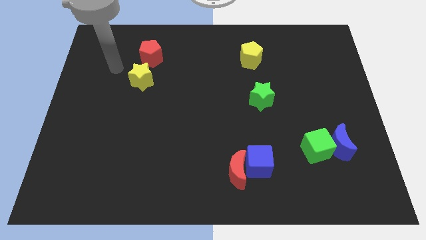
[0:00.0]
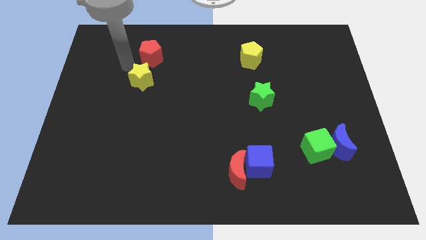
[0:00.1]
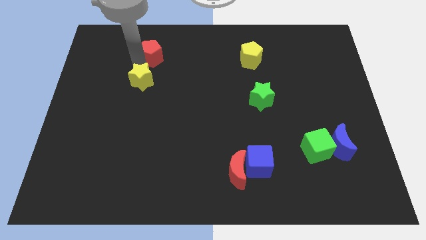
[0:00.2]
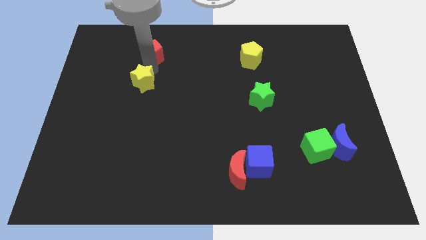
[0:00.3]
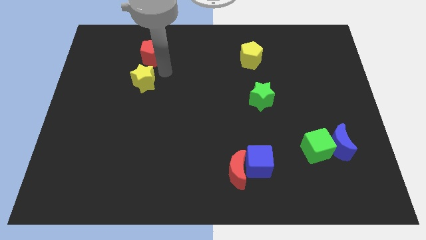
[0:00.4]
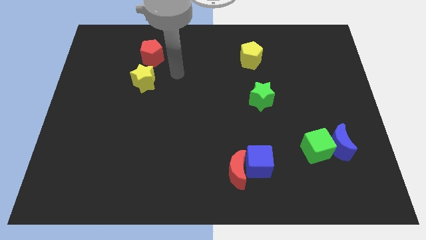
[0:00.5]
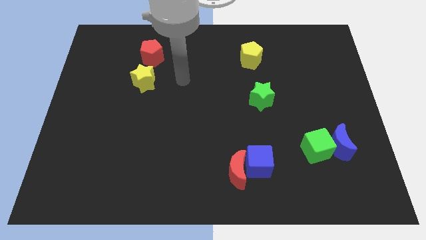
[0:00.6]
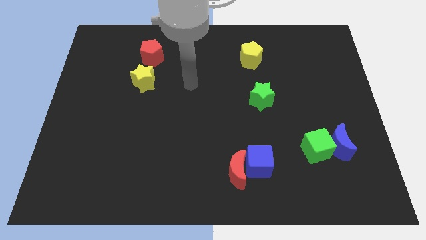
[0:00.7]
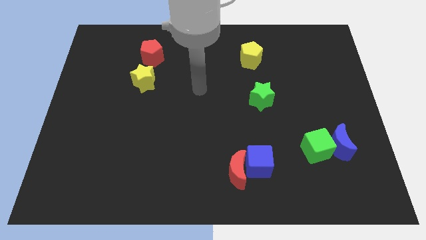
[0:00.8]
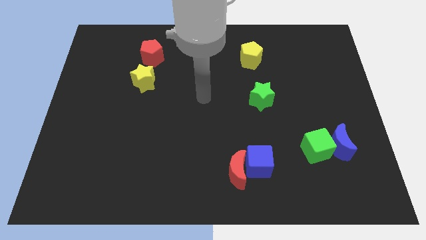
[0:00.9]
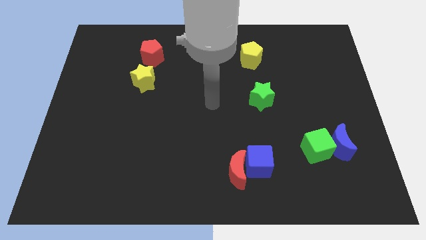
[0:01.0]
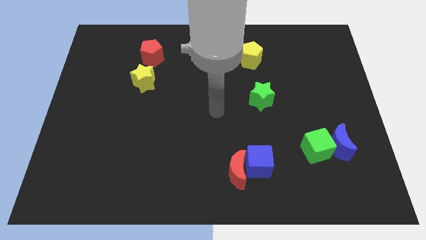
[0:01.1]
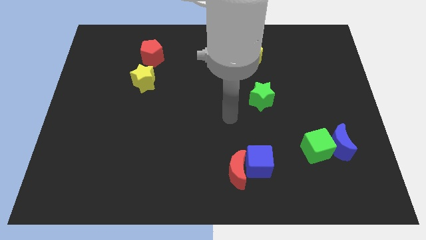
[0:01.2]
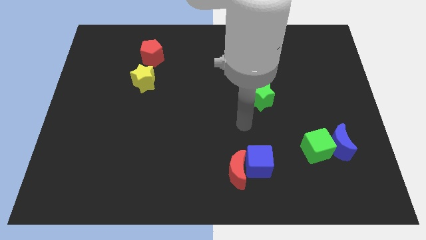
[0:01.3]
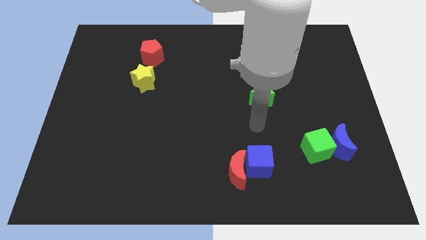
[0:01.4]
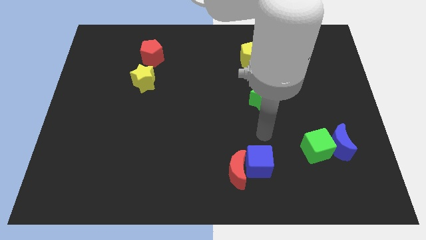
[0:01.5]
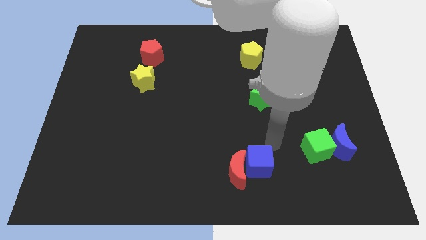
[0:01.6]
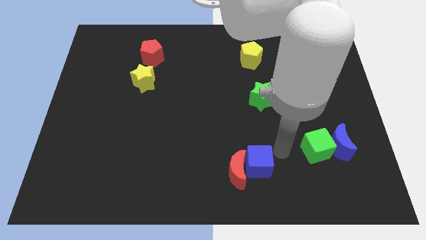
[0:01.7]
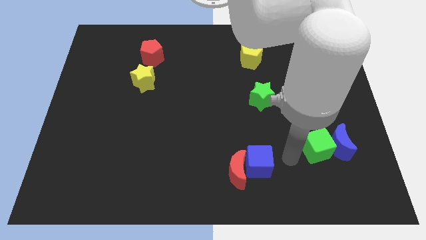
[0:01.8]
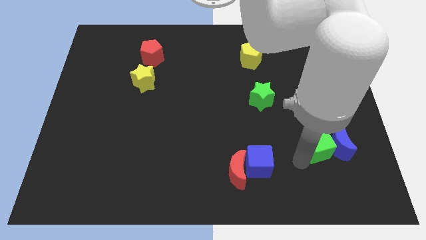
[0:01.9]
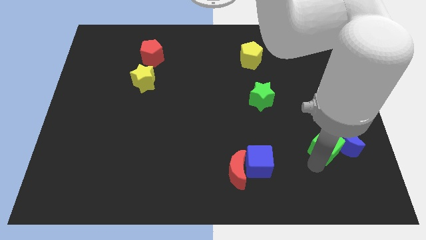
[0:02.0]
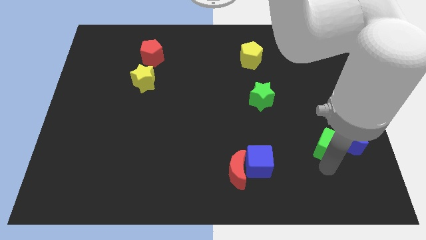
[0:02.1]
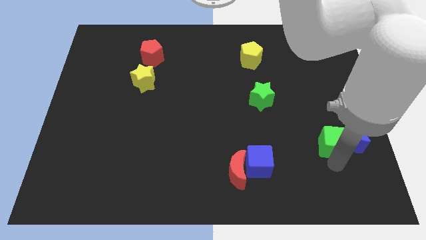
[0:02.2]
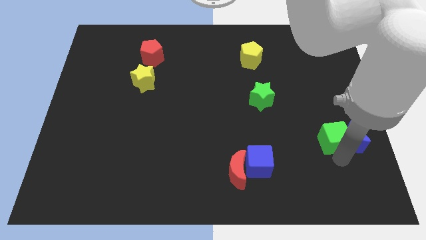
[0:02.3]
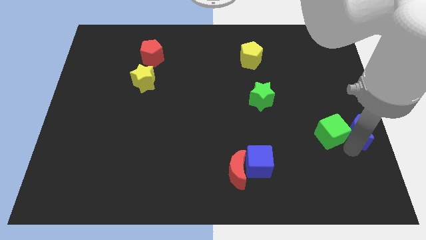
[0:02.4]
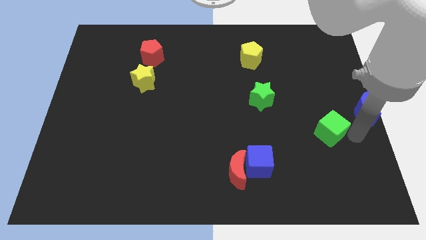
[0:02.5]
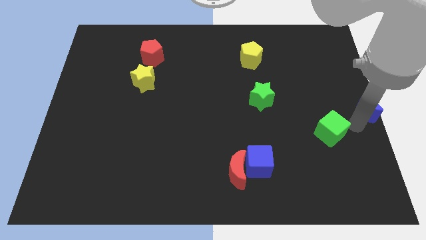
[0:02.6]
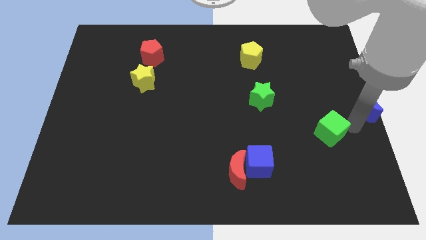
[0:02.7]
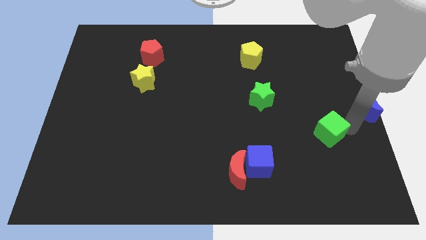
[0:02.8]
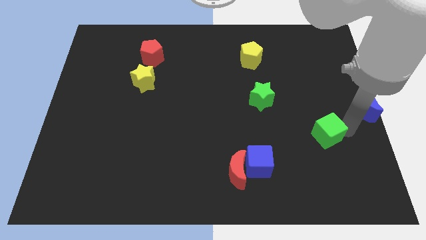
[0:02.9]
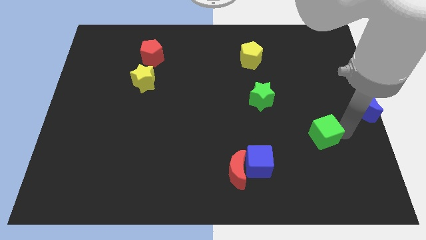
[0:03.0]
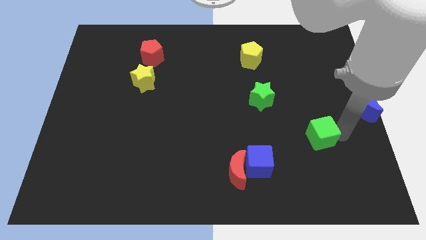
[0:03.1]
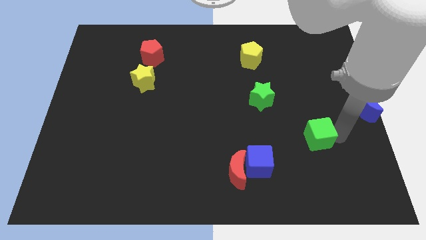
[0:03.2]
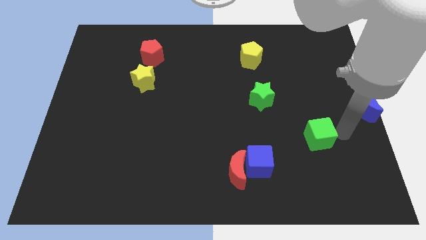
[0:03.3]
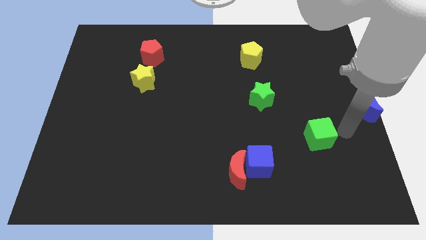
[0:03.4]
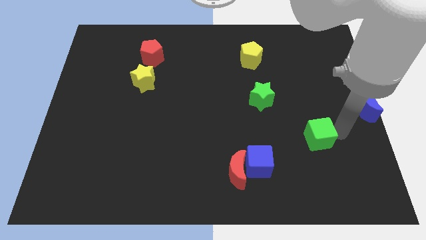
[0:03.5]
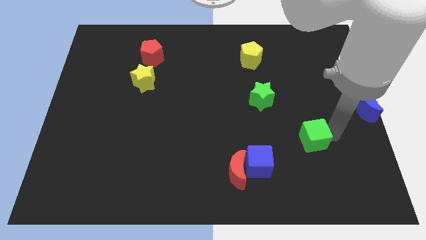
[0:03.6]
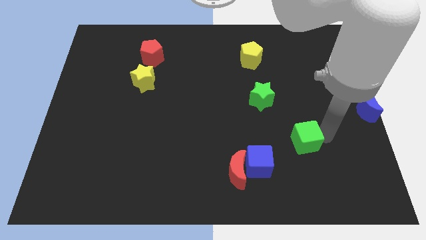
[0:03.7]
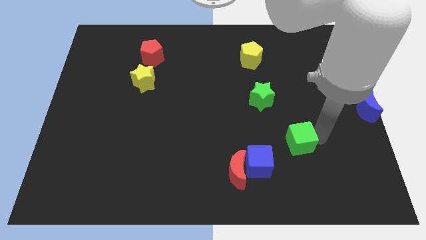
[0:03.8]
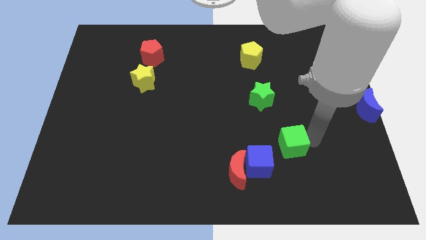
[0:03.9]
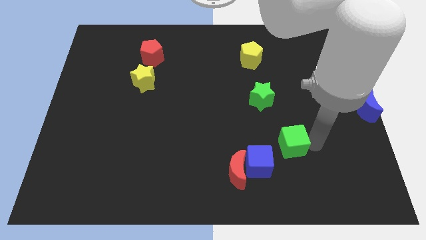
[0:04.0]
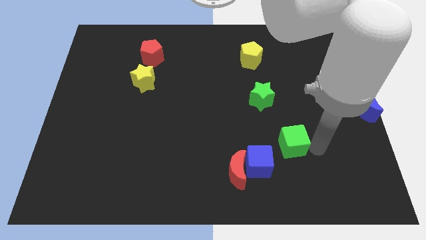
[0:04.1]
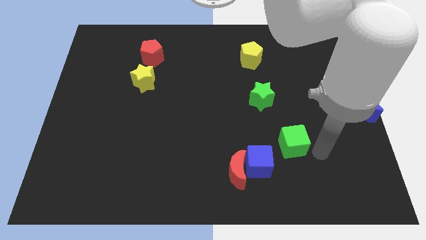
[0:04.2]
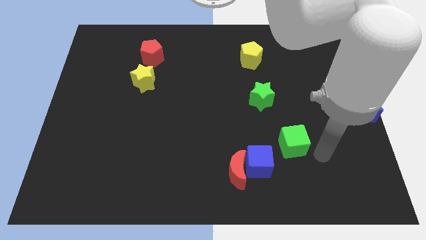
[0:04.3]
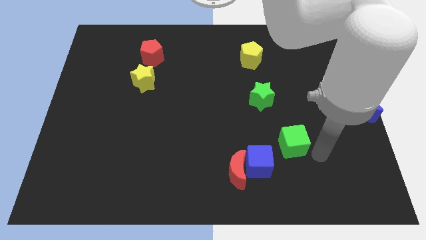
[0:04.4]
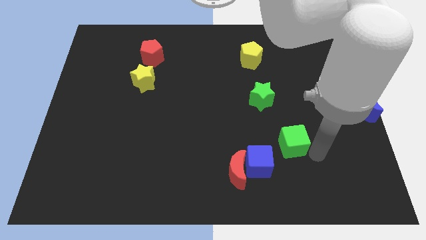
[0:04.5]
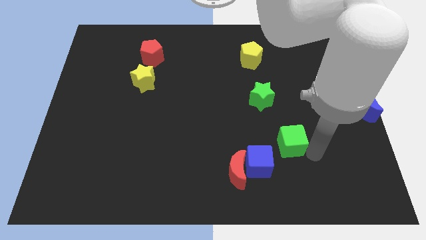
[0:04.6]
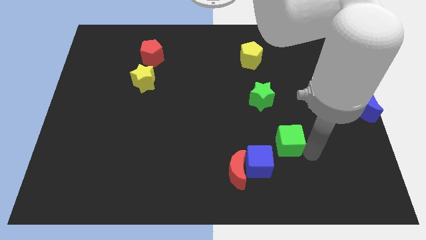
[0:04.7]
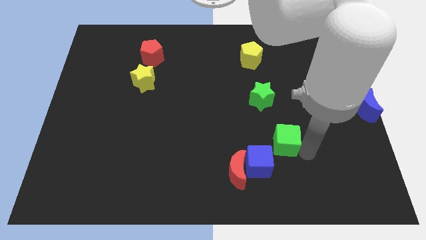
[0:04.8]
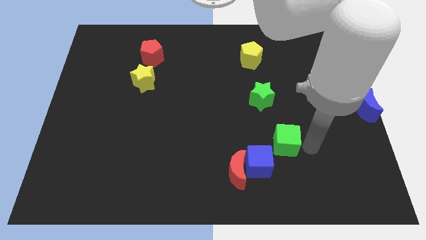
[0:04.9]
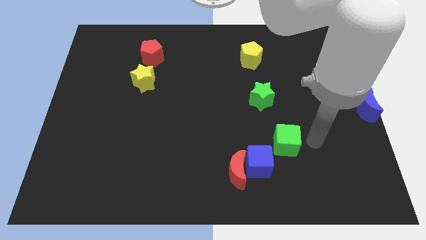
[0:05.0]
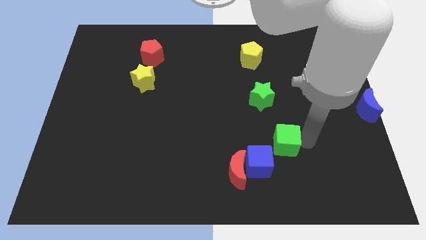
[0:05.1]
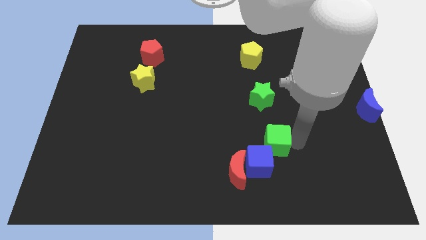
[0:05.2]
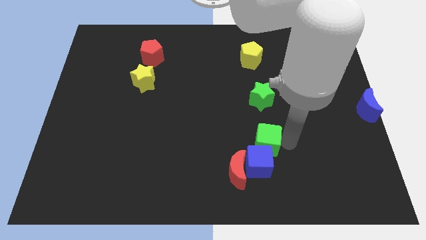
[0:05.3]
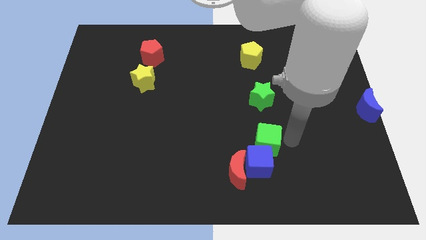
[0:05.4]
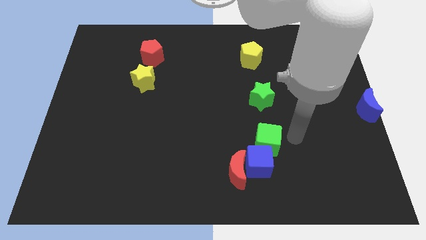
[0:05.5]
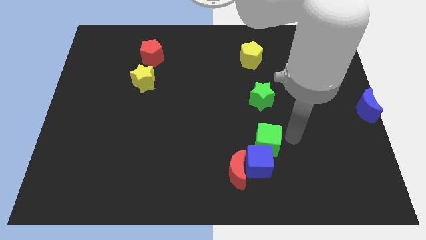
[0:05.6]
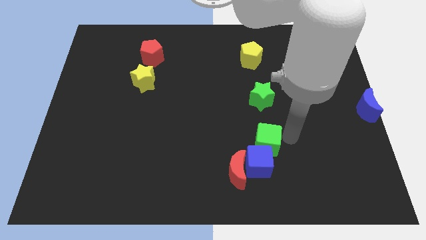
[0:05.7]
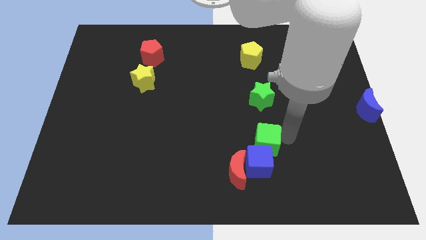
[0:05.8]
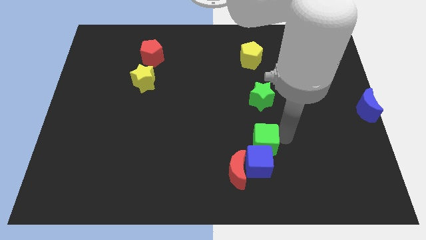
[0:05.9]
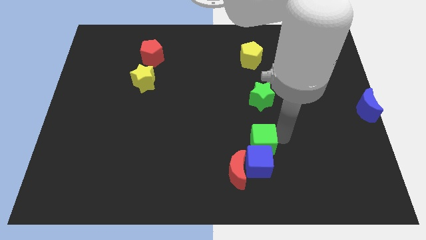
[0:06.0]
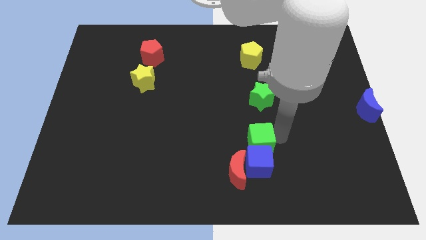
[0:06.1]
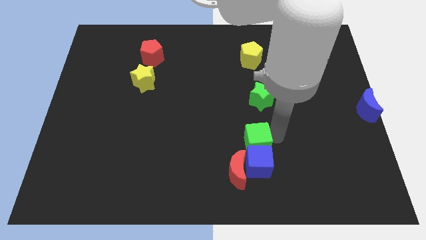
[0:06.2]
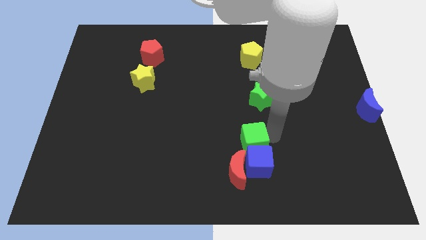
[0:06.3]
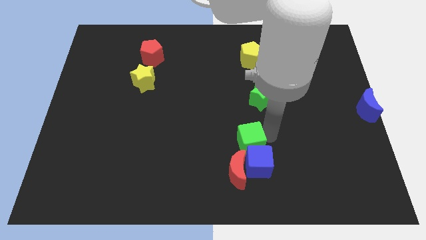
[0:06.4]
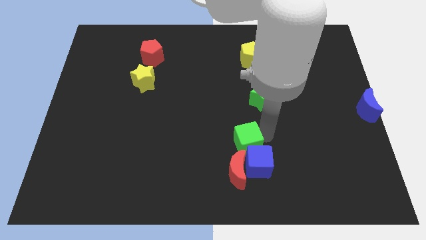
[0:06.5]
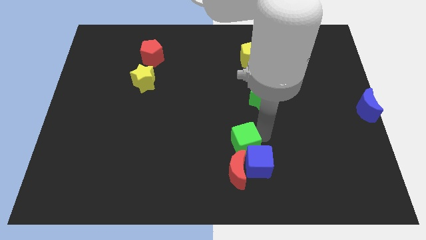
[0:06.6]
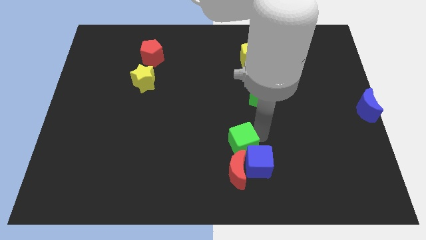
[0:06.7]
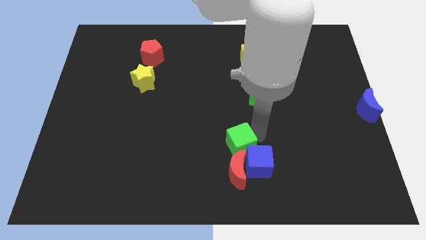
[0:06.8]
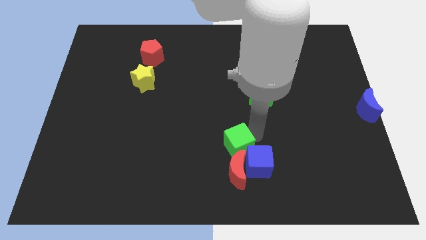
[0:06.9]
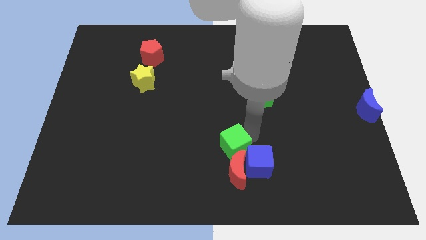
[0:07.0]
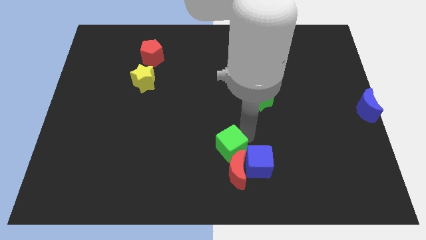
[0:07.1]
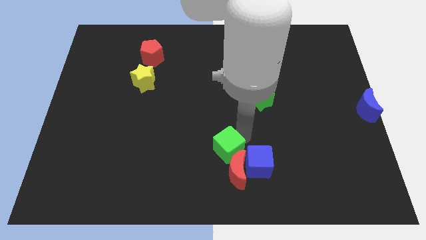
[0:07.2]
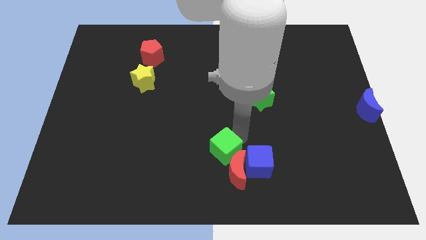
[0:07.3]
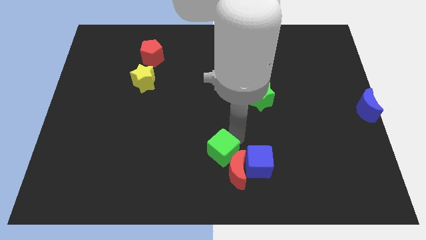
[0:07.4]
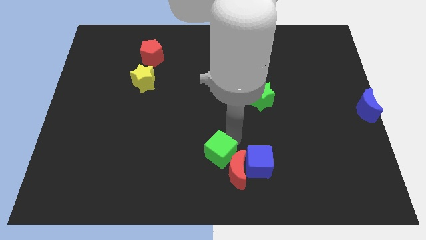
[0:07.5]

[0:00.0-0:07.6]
put the green cube just left of the red moon
